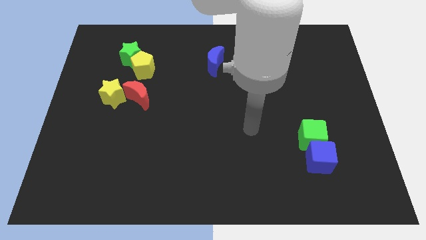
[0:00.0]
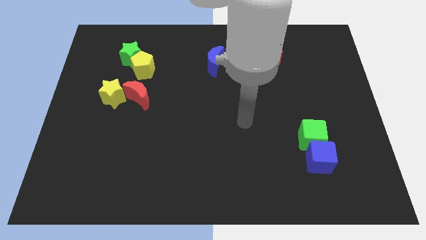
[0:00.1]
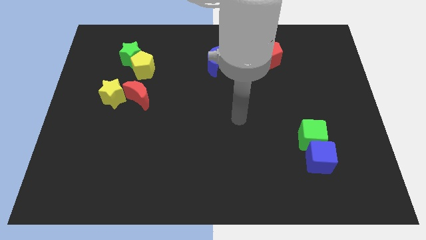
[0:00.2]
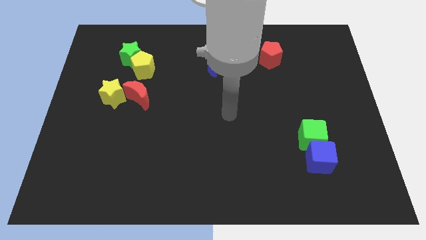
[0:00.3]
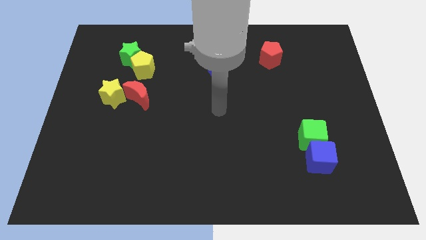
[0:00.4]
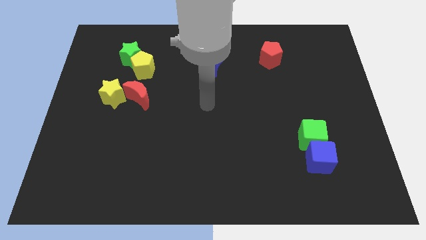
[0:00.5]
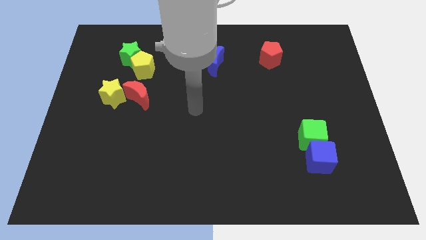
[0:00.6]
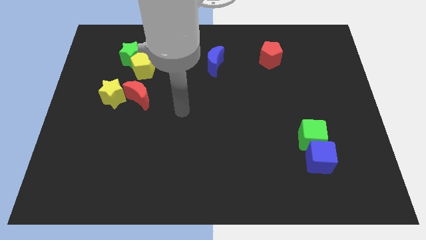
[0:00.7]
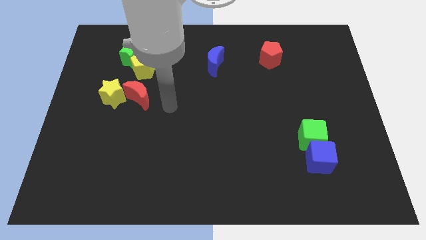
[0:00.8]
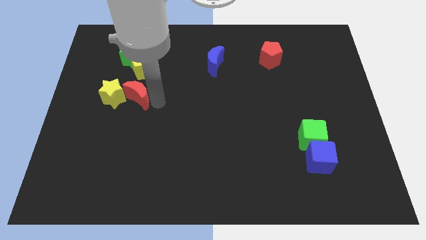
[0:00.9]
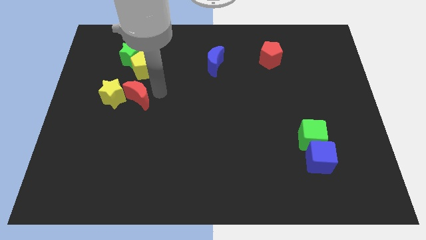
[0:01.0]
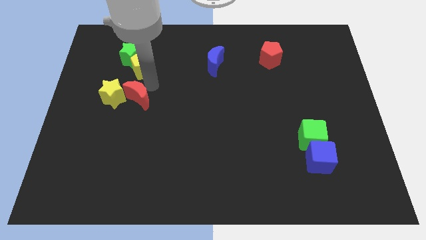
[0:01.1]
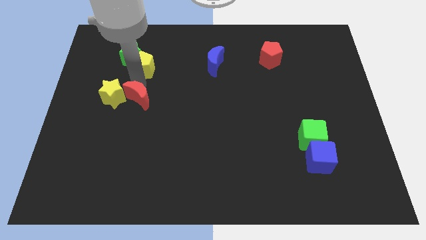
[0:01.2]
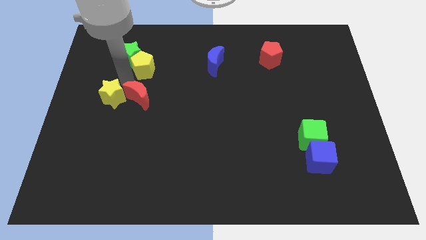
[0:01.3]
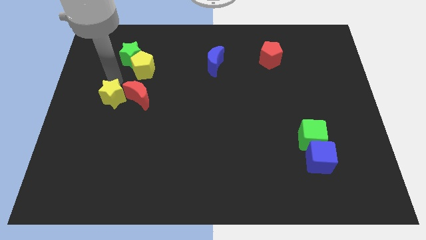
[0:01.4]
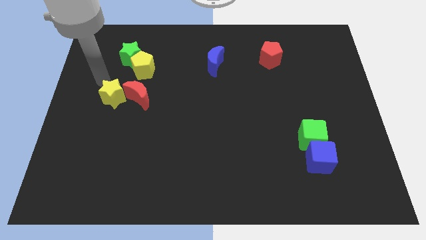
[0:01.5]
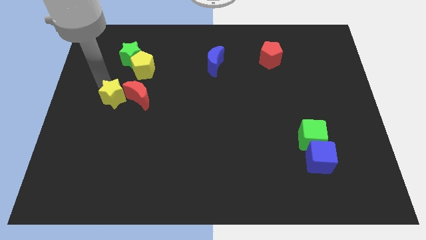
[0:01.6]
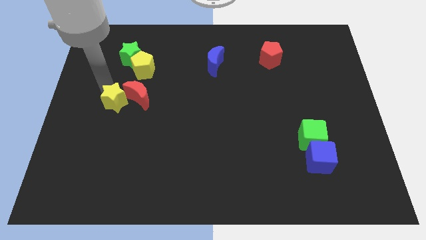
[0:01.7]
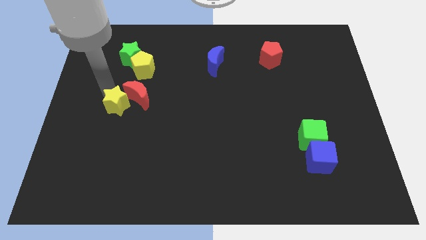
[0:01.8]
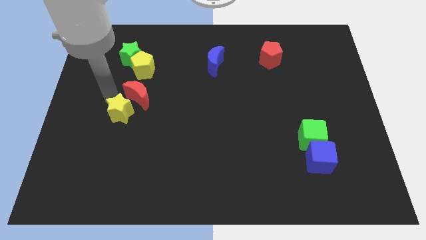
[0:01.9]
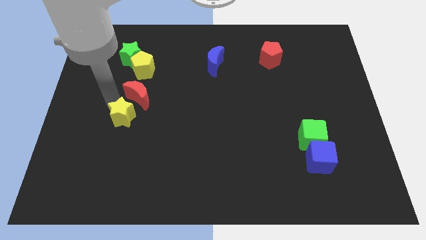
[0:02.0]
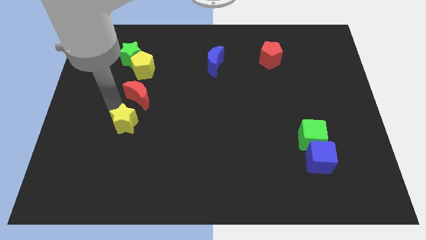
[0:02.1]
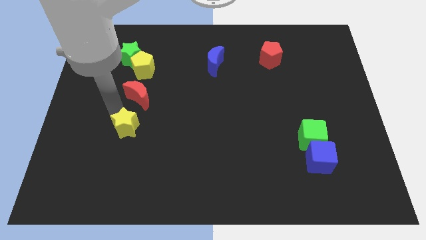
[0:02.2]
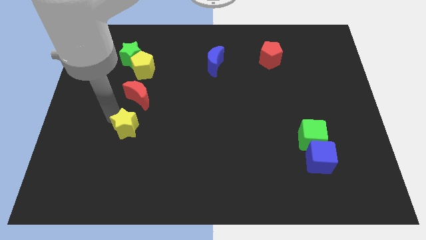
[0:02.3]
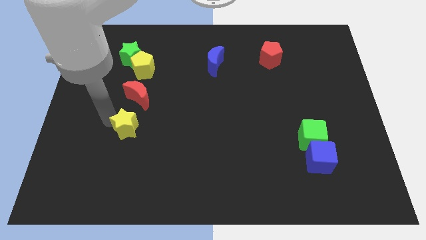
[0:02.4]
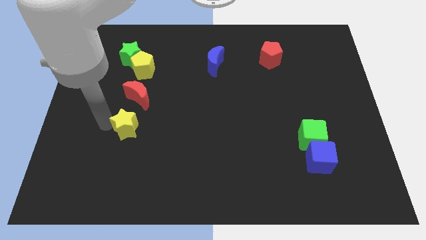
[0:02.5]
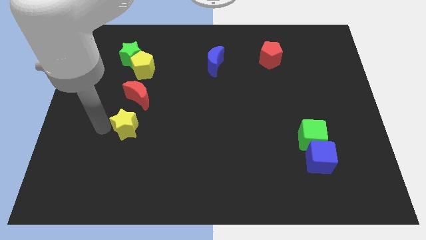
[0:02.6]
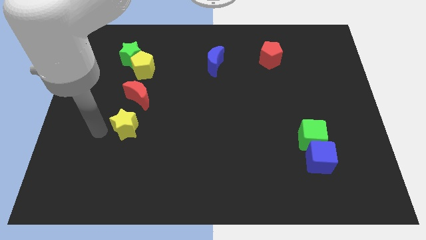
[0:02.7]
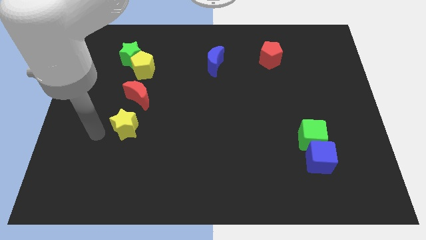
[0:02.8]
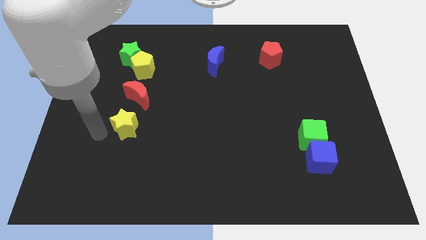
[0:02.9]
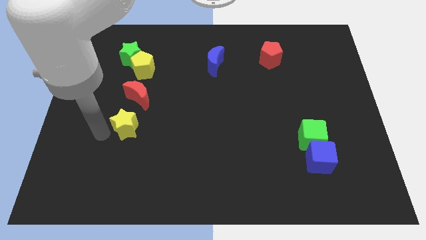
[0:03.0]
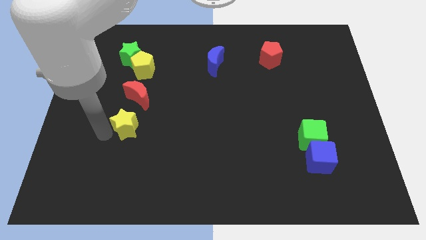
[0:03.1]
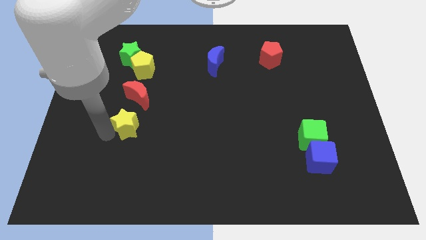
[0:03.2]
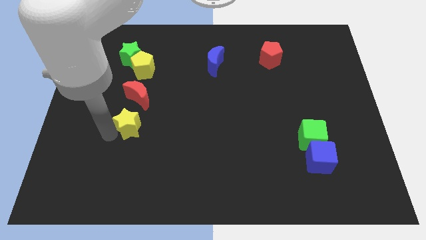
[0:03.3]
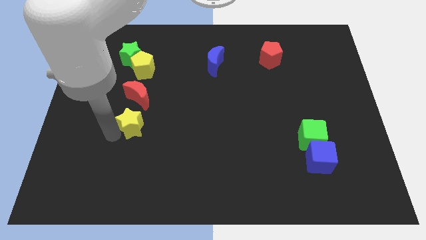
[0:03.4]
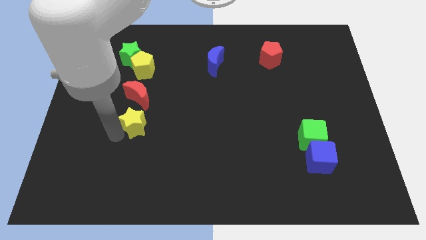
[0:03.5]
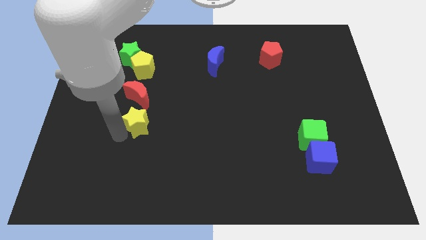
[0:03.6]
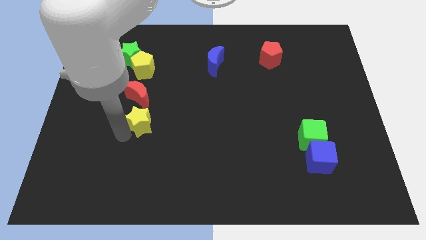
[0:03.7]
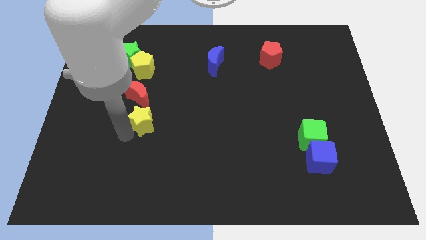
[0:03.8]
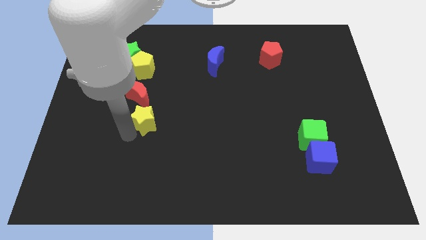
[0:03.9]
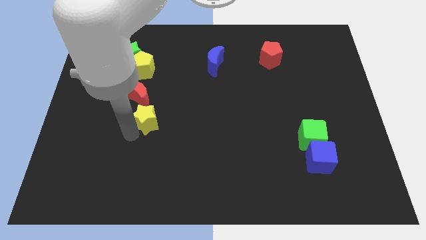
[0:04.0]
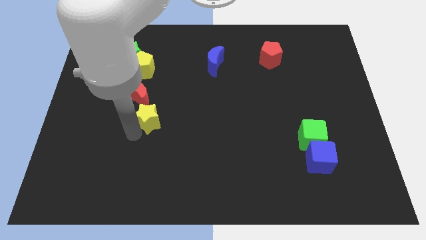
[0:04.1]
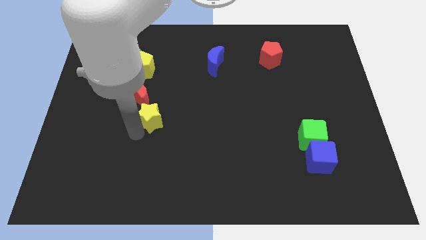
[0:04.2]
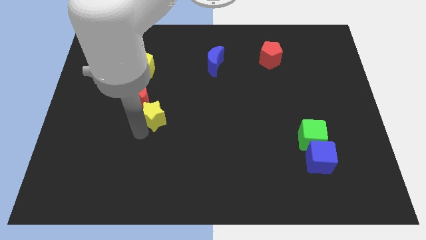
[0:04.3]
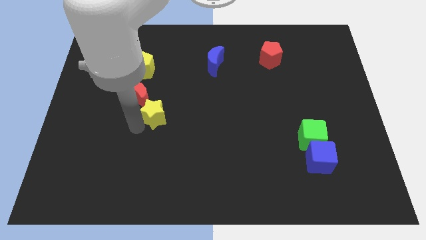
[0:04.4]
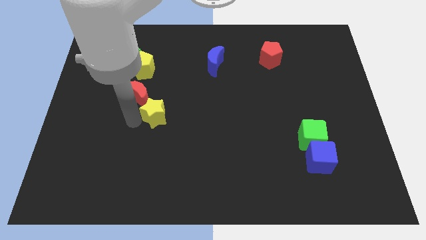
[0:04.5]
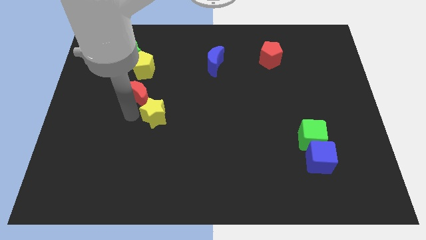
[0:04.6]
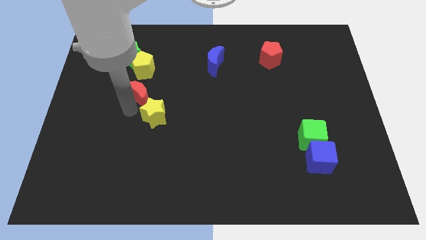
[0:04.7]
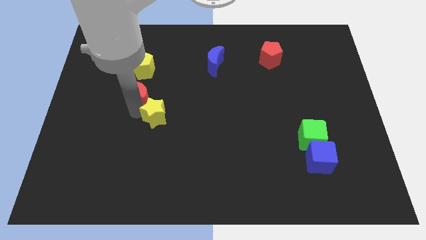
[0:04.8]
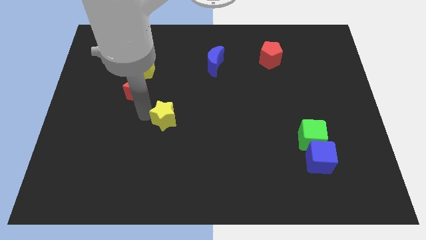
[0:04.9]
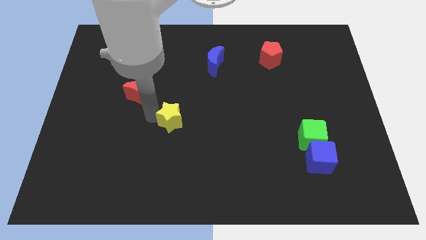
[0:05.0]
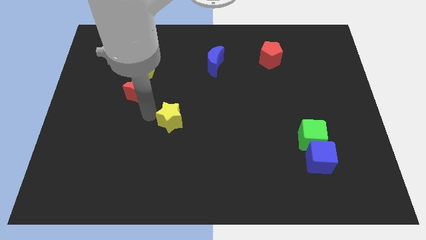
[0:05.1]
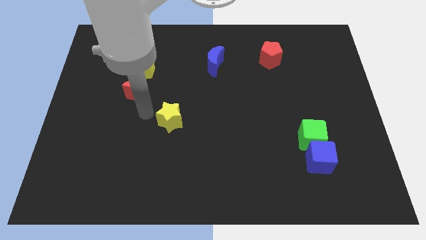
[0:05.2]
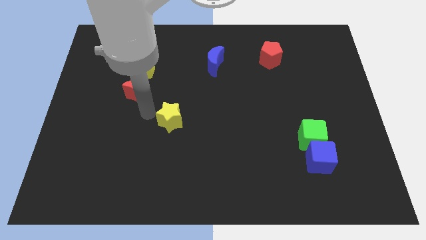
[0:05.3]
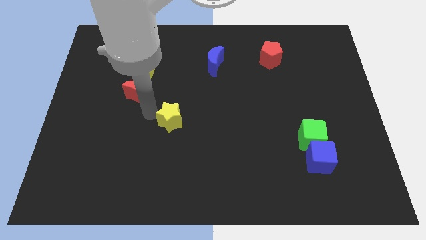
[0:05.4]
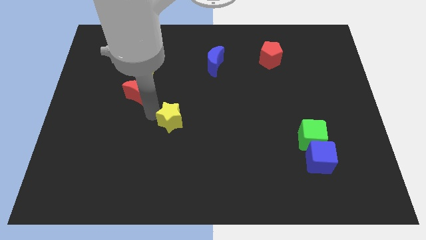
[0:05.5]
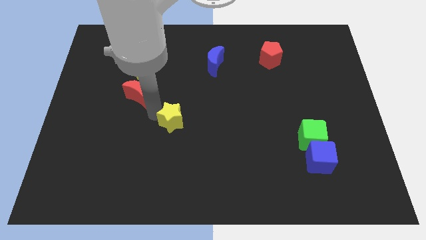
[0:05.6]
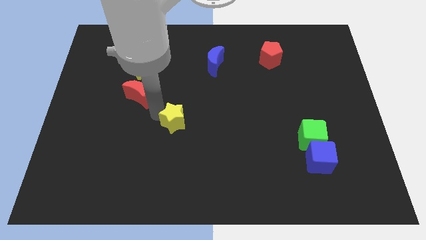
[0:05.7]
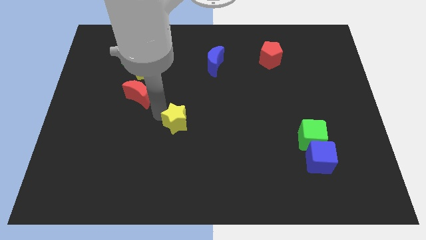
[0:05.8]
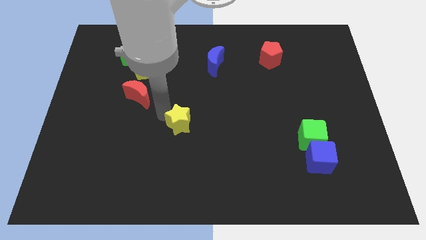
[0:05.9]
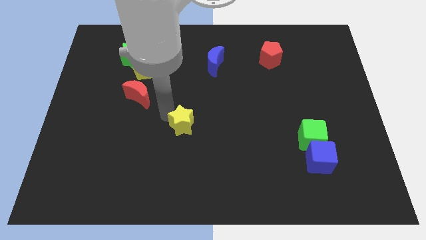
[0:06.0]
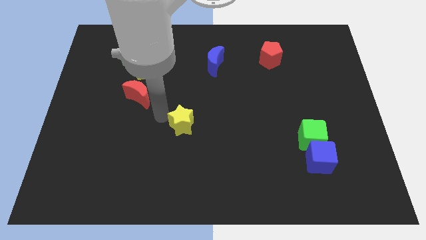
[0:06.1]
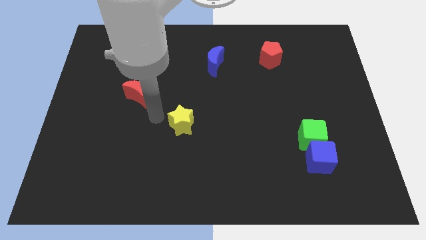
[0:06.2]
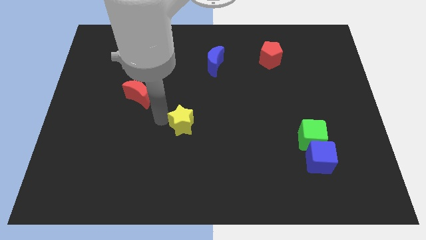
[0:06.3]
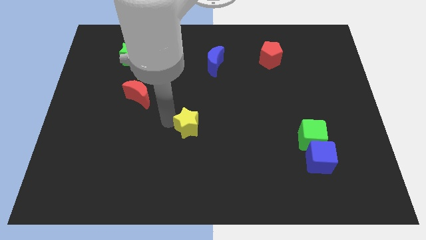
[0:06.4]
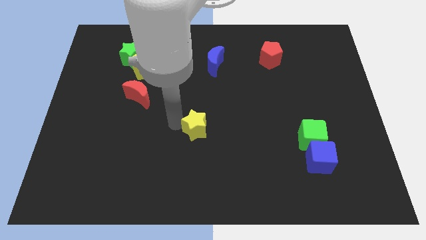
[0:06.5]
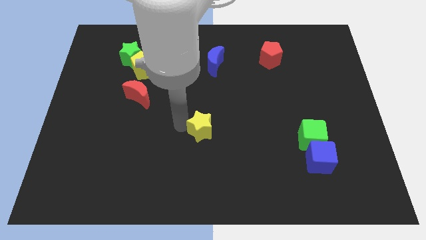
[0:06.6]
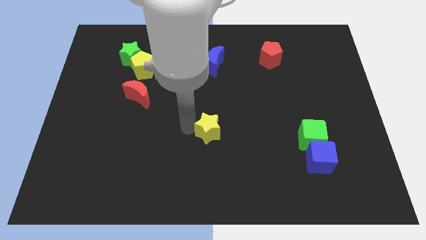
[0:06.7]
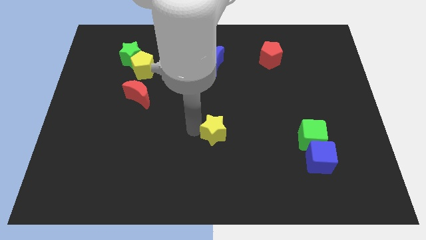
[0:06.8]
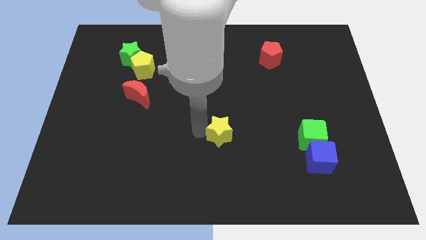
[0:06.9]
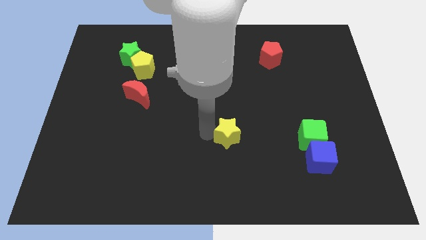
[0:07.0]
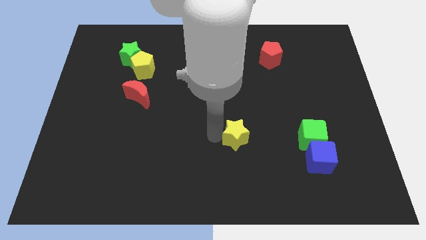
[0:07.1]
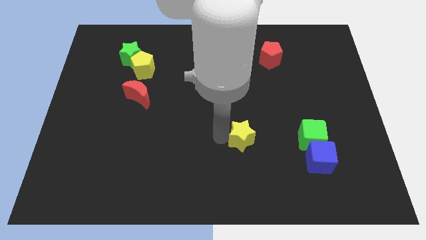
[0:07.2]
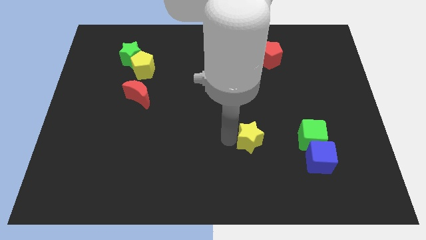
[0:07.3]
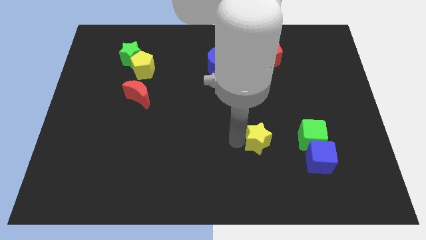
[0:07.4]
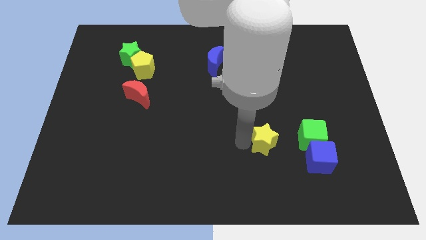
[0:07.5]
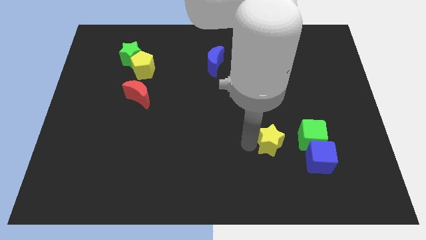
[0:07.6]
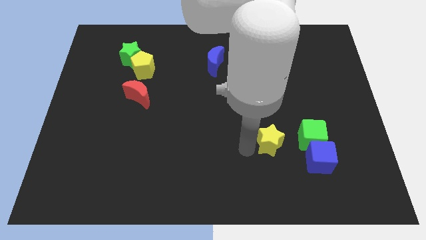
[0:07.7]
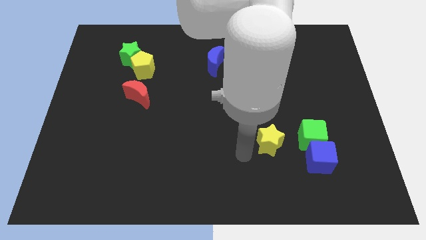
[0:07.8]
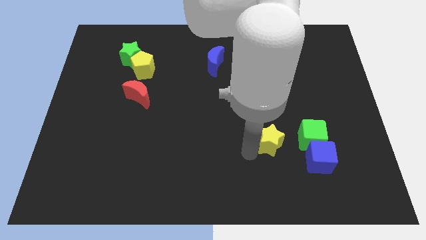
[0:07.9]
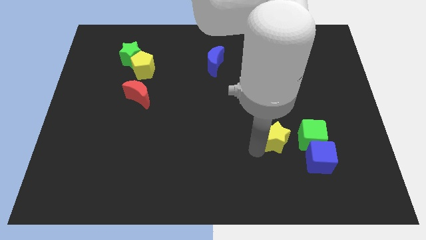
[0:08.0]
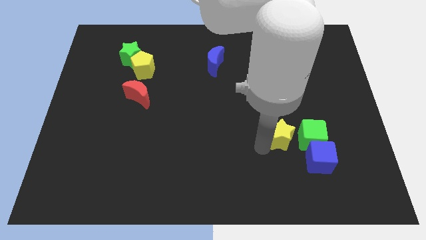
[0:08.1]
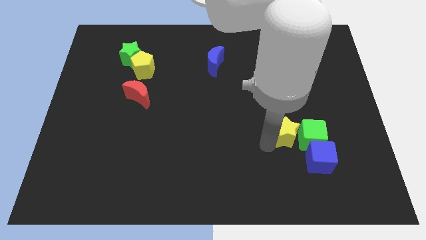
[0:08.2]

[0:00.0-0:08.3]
push the yellow star towards the green cube
